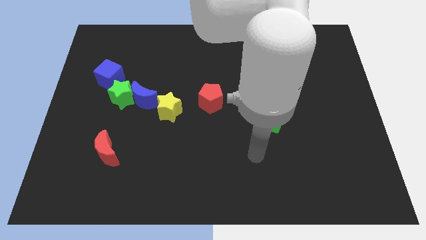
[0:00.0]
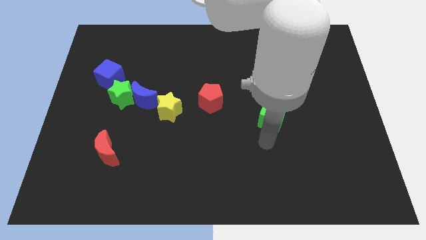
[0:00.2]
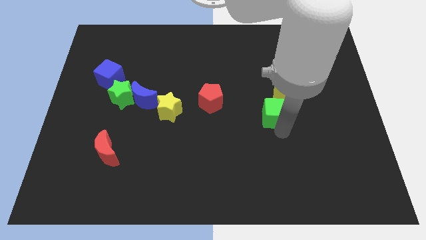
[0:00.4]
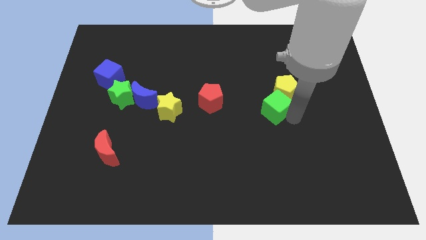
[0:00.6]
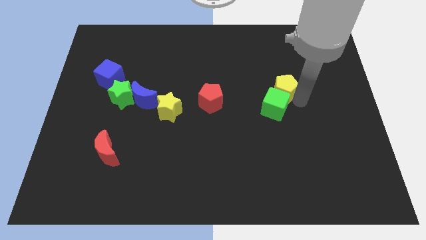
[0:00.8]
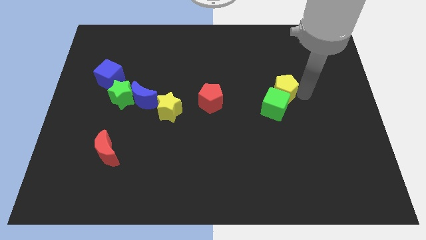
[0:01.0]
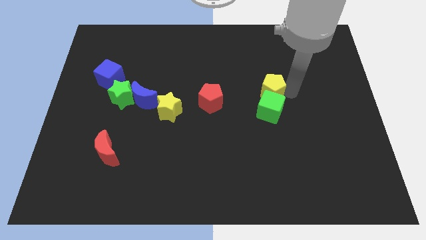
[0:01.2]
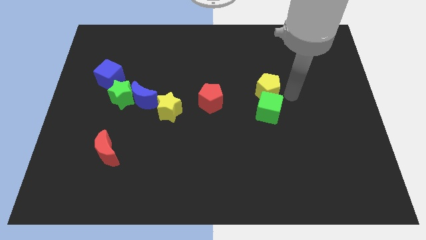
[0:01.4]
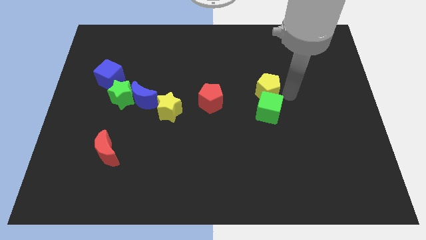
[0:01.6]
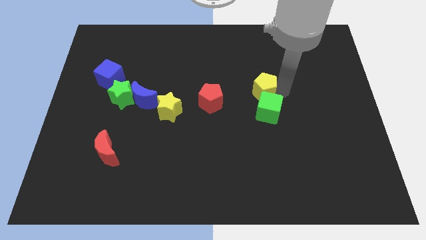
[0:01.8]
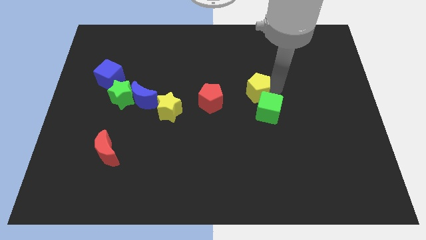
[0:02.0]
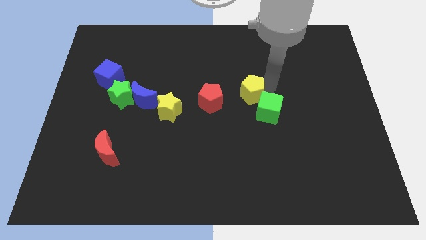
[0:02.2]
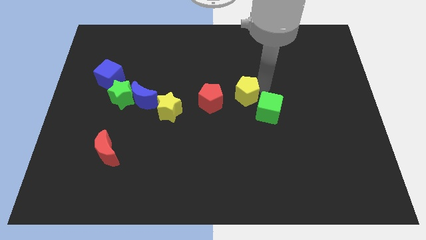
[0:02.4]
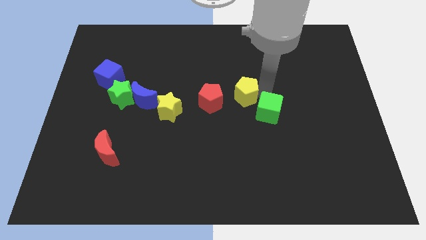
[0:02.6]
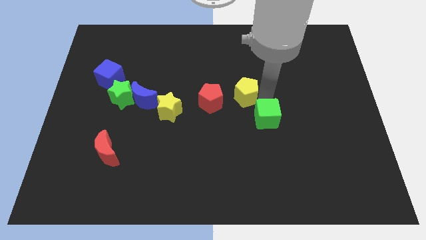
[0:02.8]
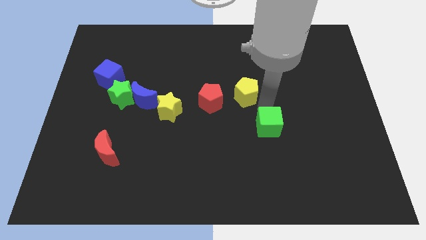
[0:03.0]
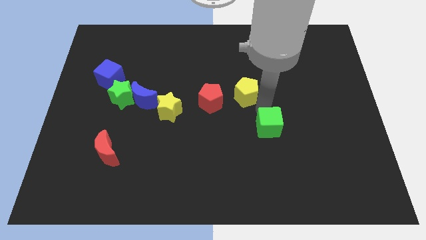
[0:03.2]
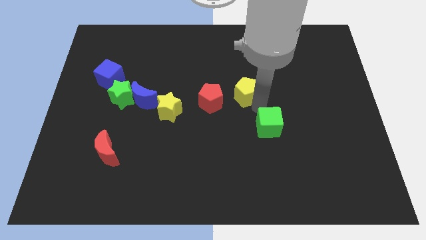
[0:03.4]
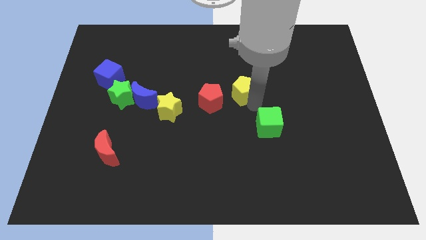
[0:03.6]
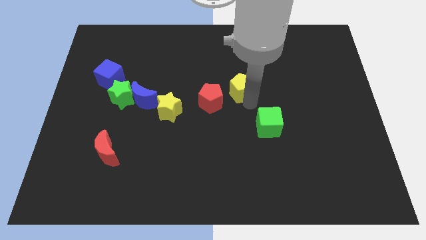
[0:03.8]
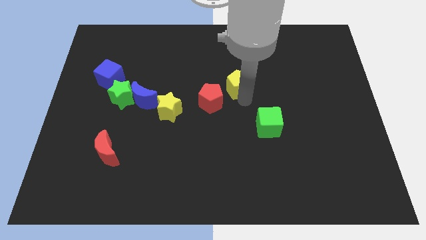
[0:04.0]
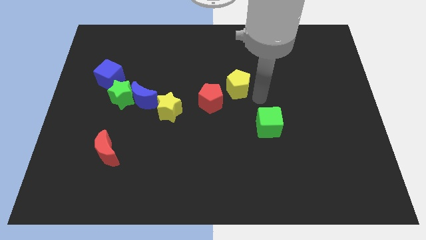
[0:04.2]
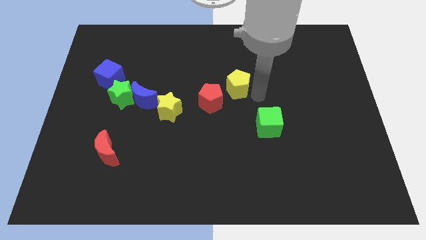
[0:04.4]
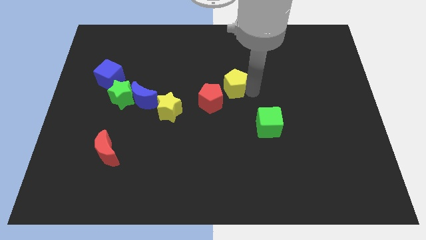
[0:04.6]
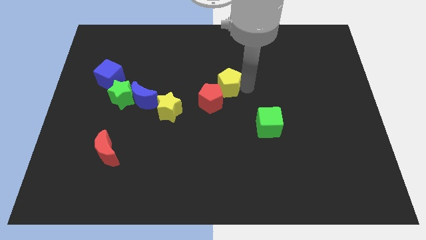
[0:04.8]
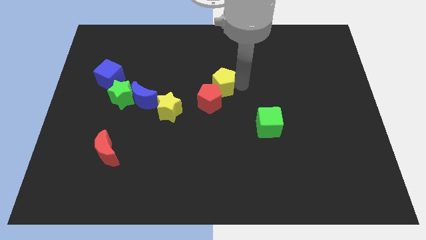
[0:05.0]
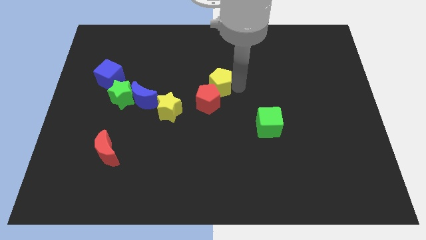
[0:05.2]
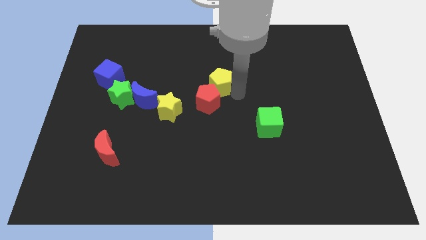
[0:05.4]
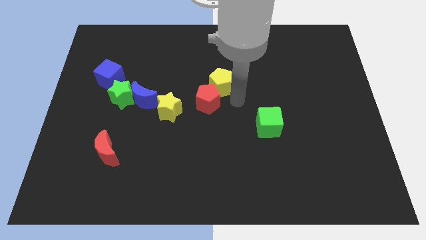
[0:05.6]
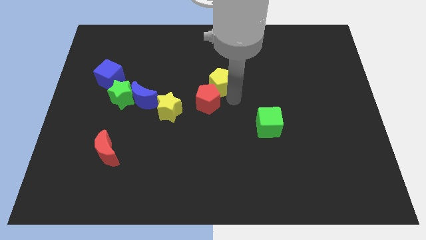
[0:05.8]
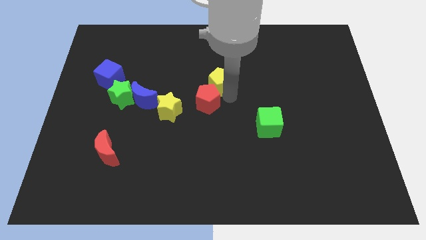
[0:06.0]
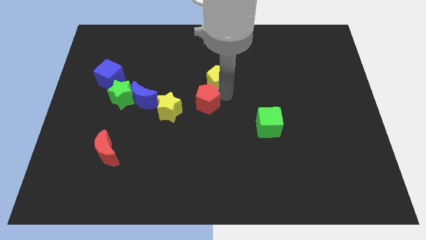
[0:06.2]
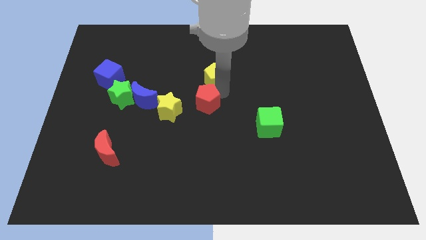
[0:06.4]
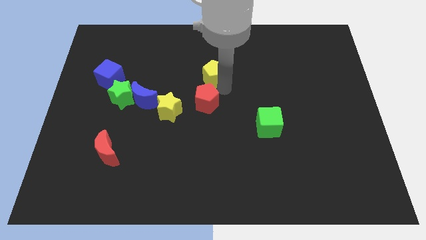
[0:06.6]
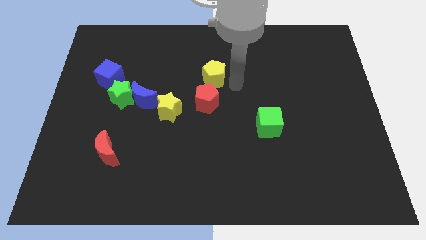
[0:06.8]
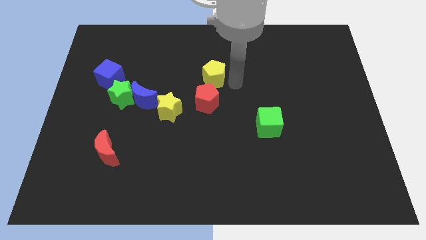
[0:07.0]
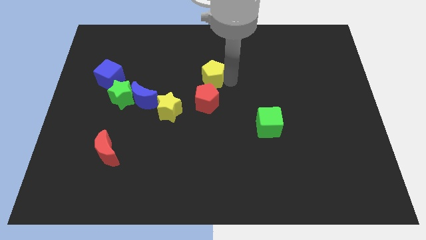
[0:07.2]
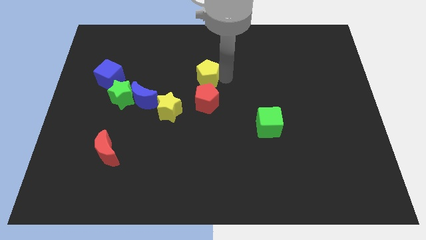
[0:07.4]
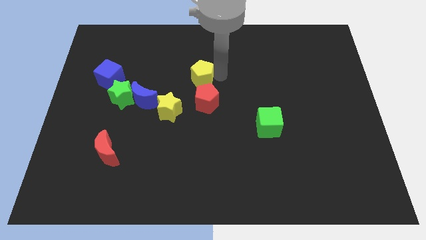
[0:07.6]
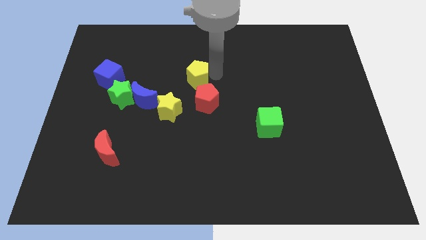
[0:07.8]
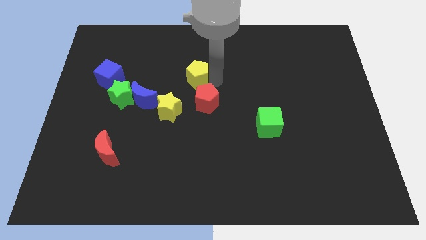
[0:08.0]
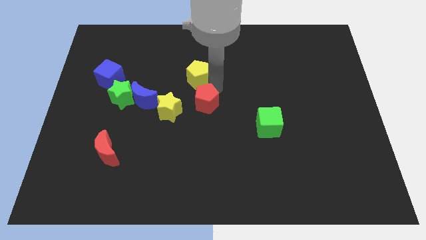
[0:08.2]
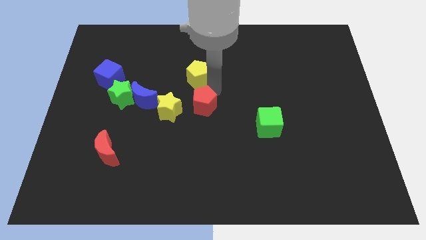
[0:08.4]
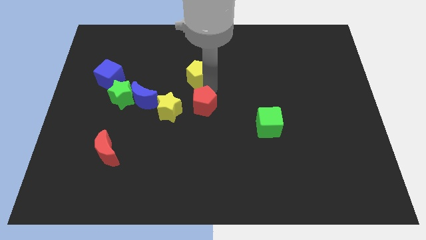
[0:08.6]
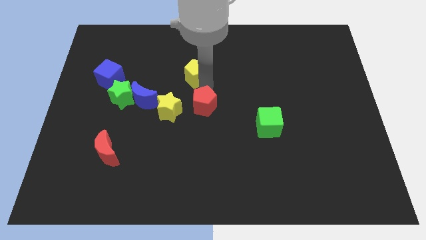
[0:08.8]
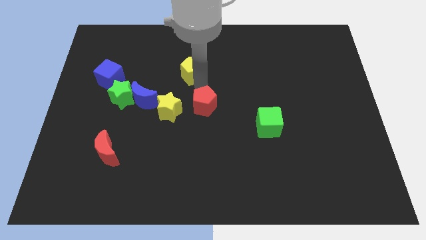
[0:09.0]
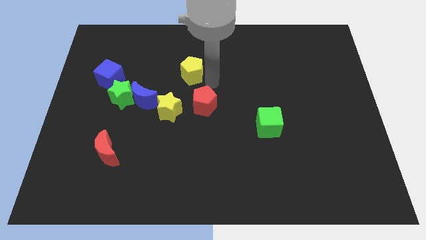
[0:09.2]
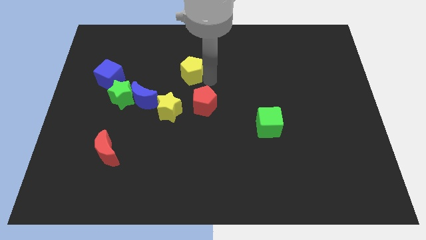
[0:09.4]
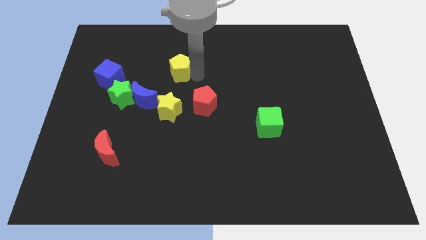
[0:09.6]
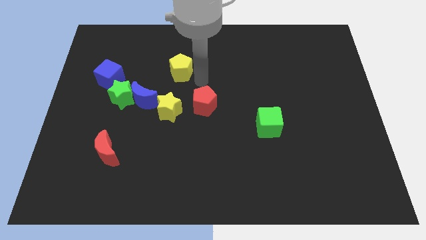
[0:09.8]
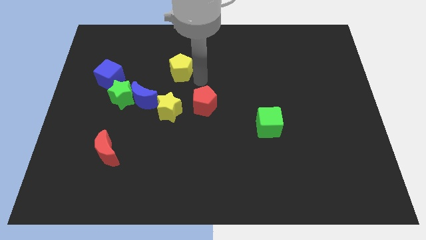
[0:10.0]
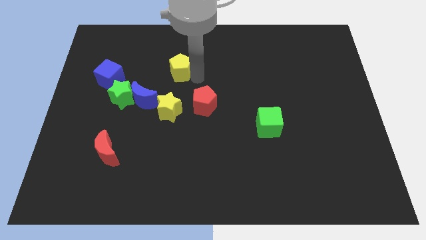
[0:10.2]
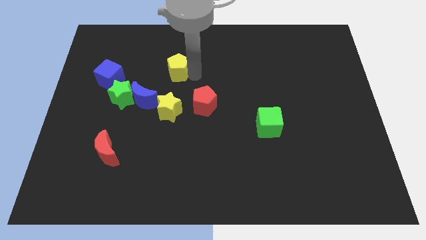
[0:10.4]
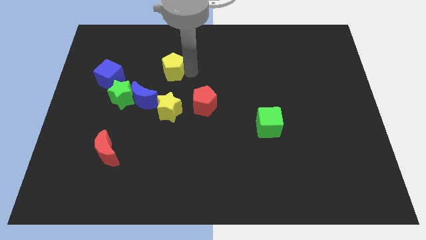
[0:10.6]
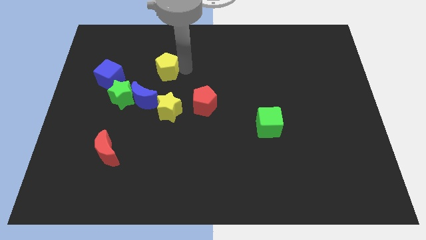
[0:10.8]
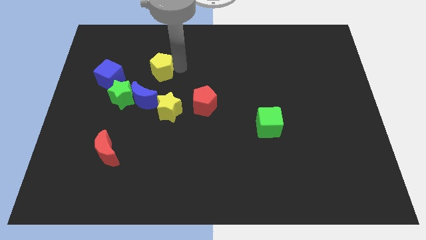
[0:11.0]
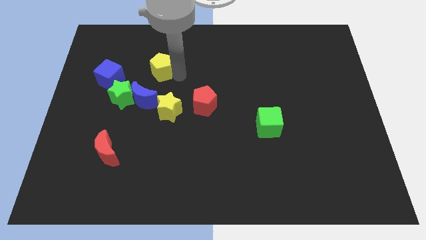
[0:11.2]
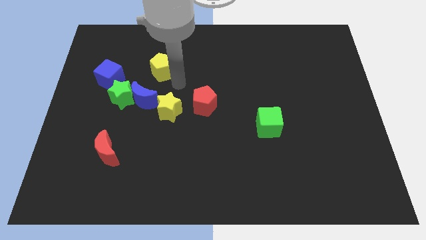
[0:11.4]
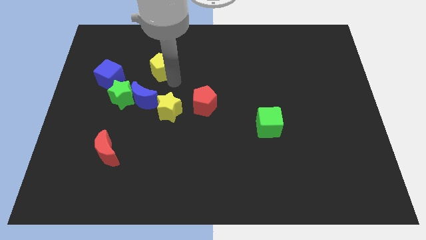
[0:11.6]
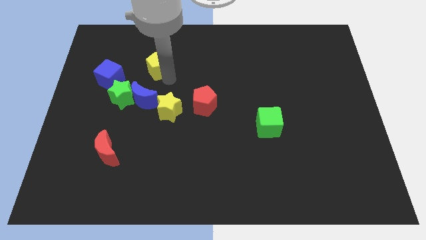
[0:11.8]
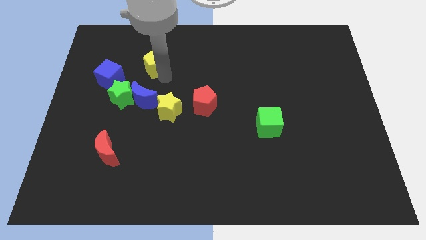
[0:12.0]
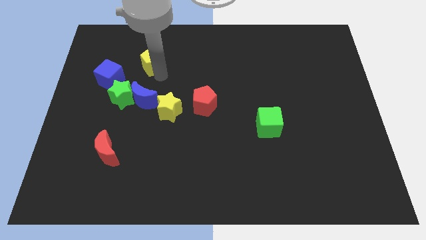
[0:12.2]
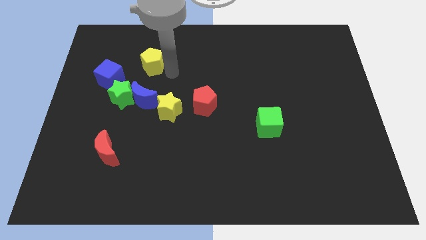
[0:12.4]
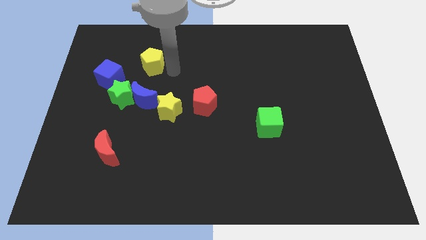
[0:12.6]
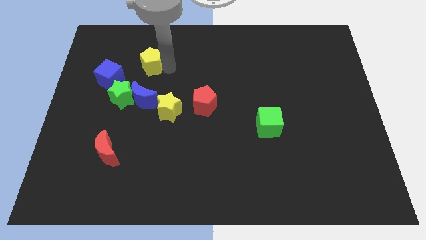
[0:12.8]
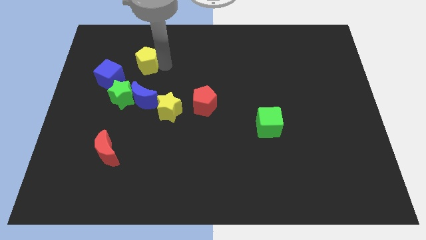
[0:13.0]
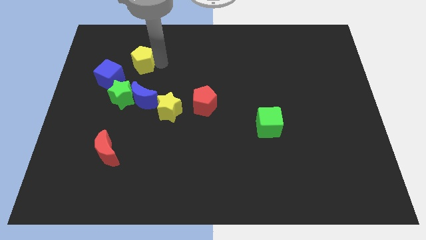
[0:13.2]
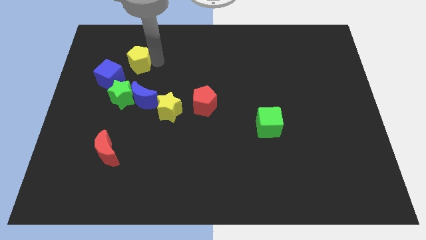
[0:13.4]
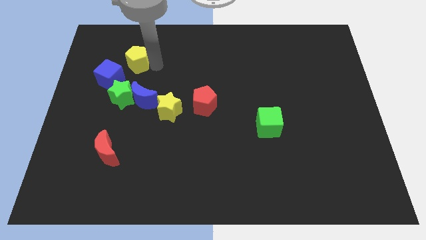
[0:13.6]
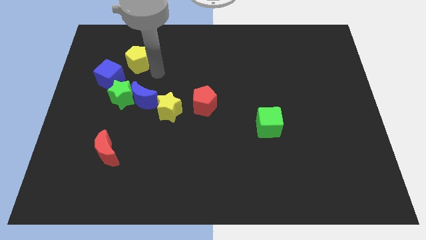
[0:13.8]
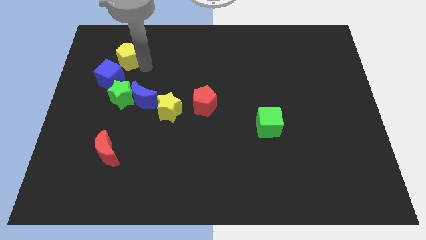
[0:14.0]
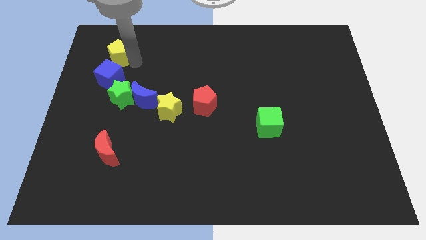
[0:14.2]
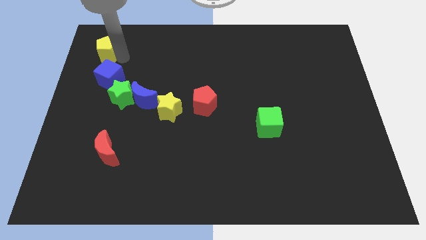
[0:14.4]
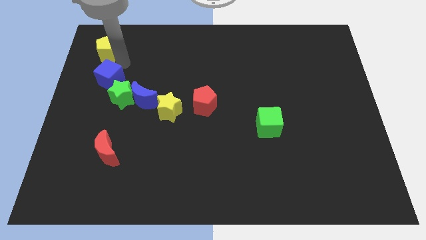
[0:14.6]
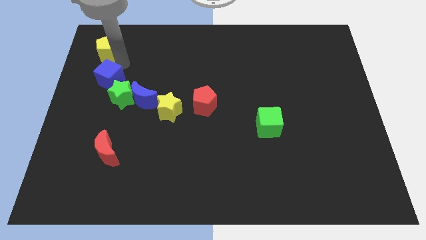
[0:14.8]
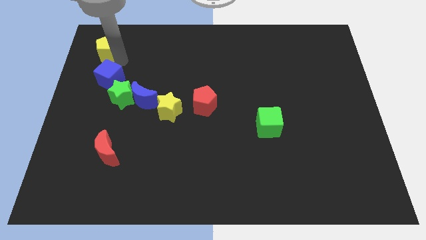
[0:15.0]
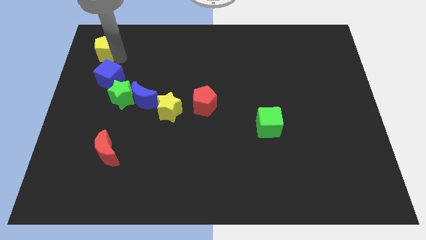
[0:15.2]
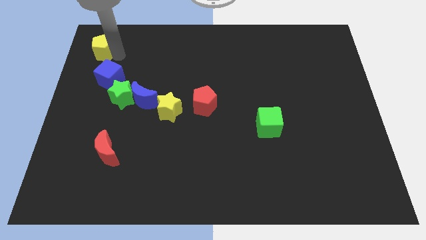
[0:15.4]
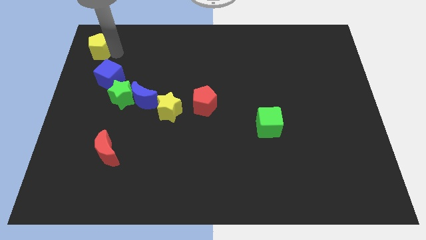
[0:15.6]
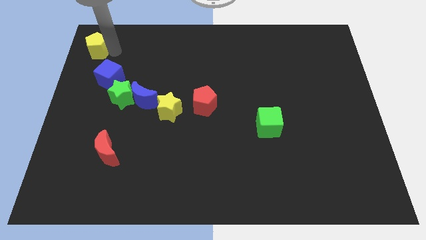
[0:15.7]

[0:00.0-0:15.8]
slide the yellow pentagon to the top left corner
